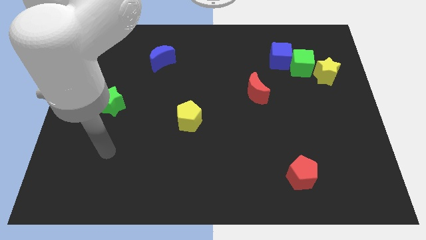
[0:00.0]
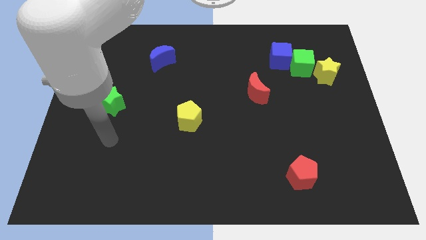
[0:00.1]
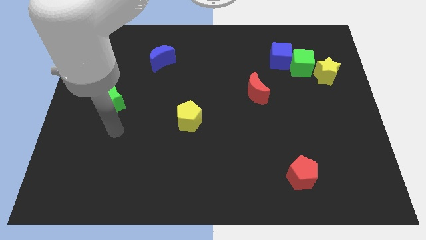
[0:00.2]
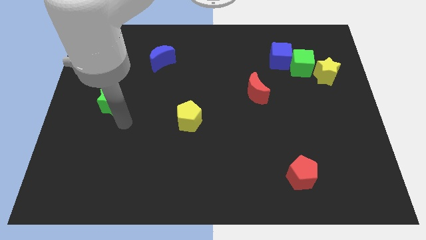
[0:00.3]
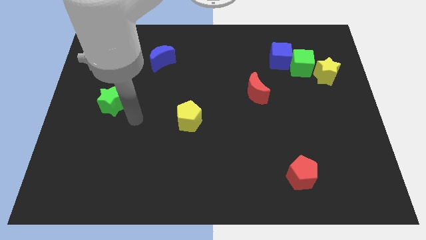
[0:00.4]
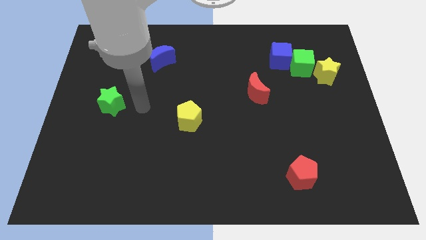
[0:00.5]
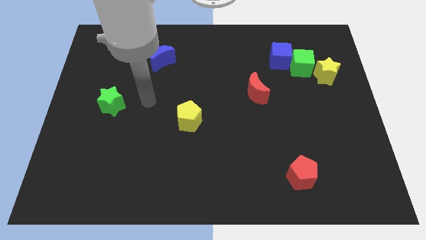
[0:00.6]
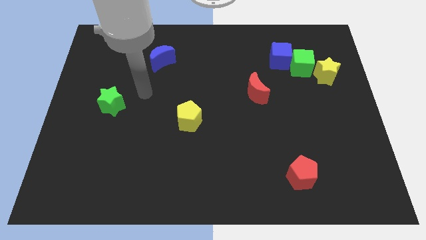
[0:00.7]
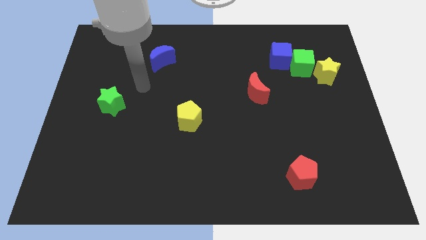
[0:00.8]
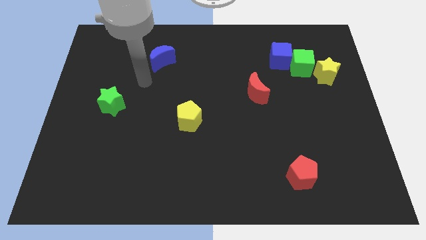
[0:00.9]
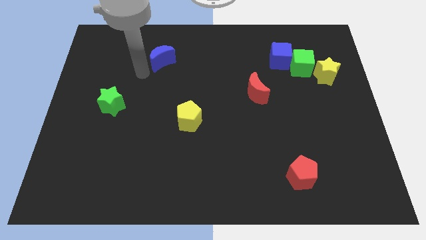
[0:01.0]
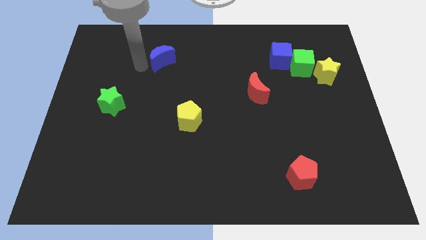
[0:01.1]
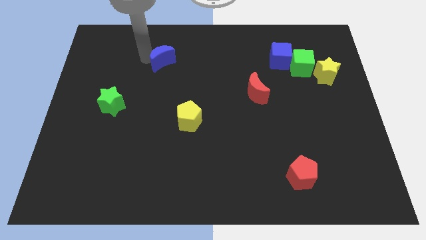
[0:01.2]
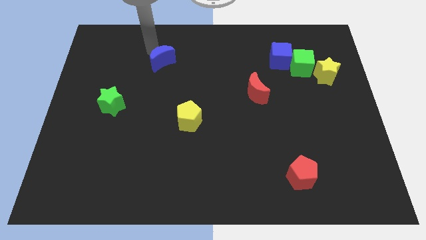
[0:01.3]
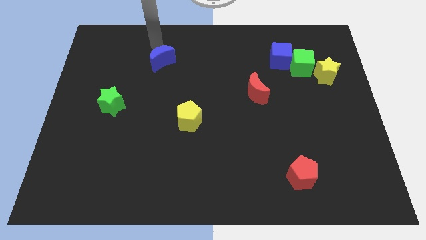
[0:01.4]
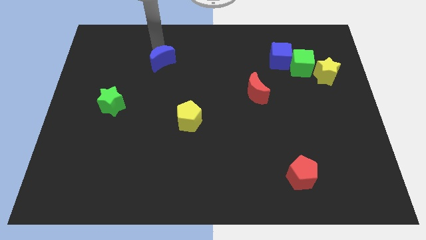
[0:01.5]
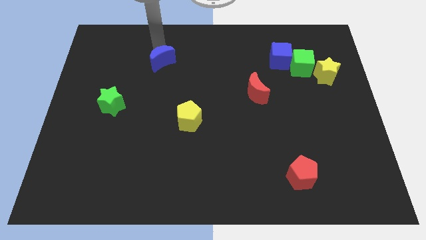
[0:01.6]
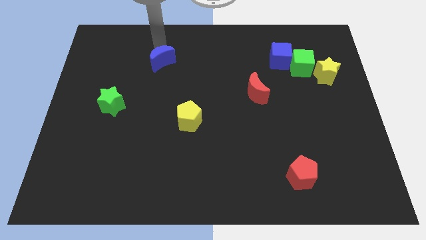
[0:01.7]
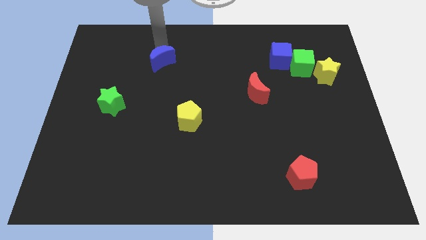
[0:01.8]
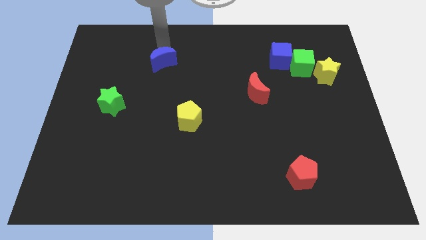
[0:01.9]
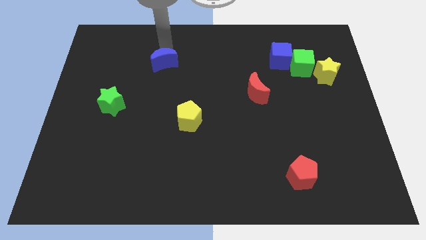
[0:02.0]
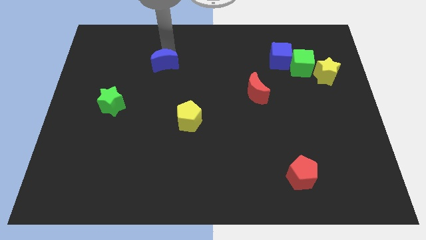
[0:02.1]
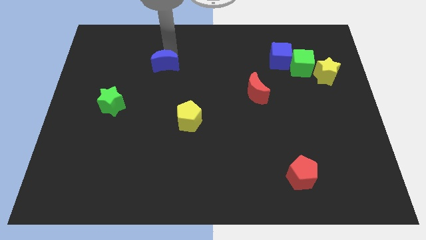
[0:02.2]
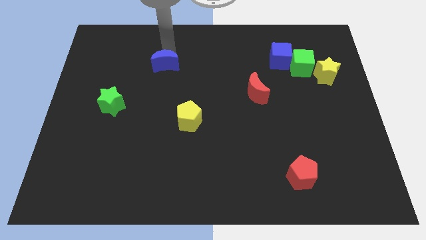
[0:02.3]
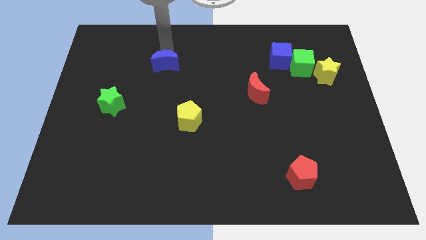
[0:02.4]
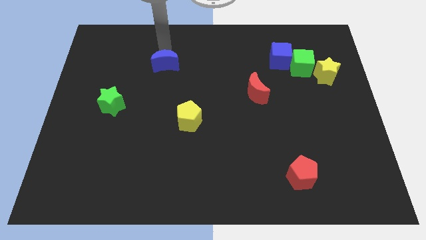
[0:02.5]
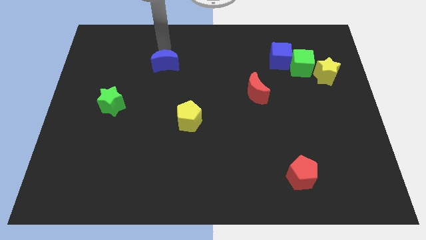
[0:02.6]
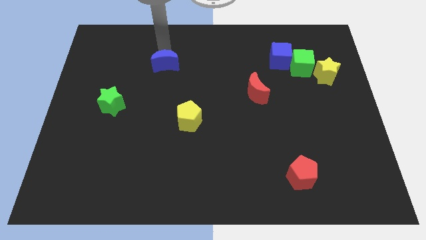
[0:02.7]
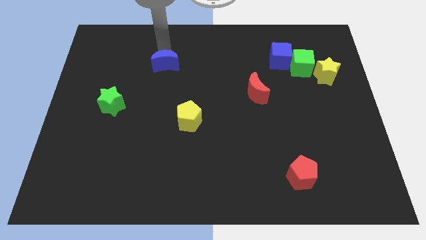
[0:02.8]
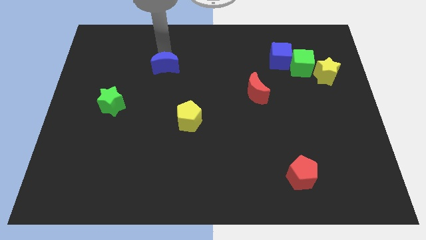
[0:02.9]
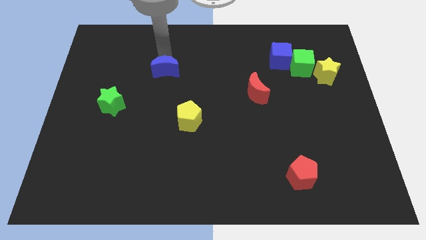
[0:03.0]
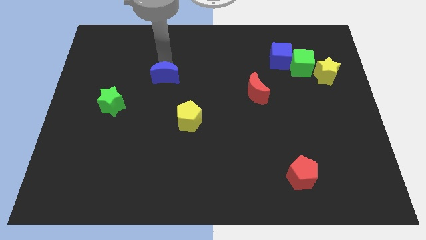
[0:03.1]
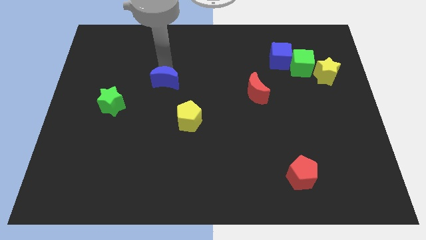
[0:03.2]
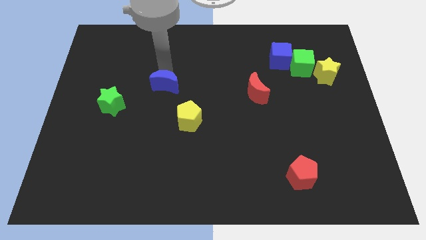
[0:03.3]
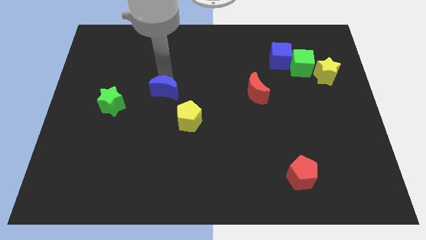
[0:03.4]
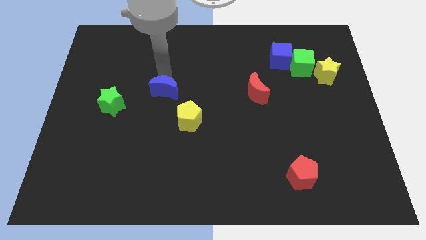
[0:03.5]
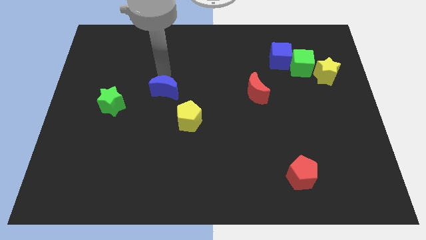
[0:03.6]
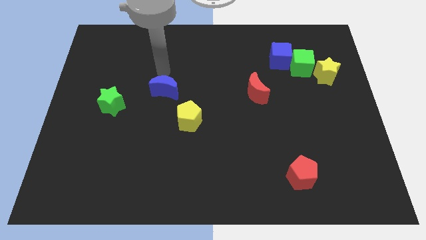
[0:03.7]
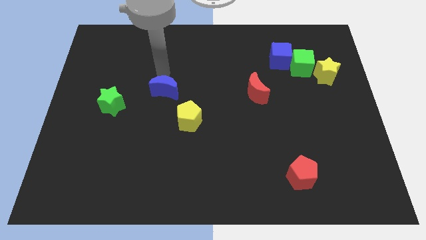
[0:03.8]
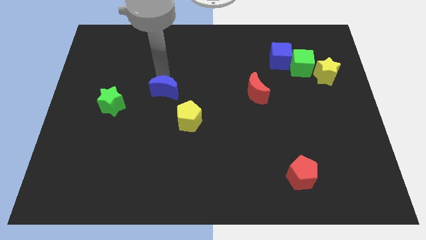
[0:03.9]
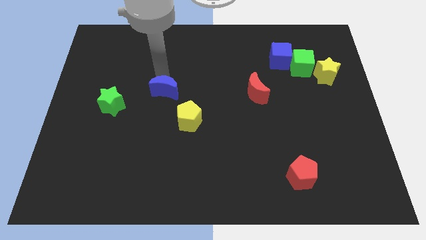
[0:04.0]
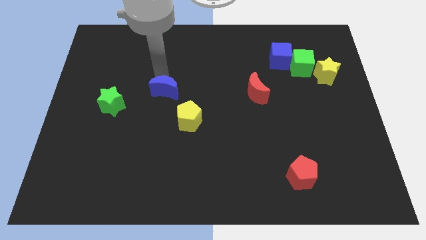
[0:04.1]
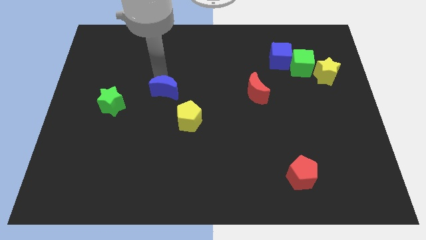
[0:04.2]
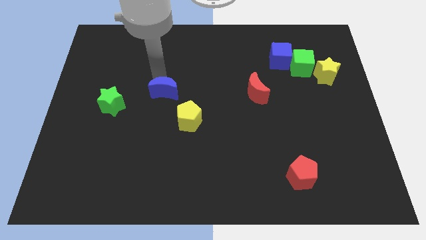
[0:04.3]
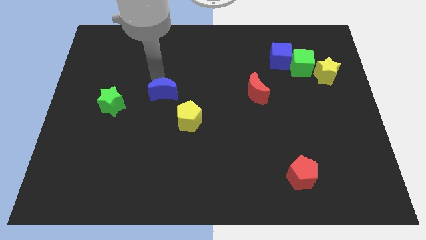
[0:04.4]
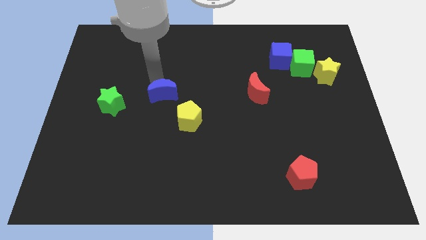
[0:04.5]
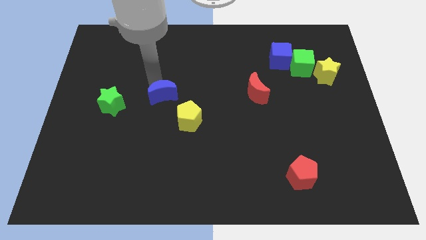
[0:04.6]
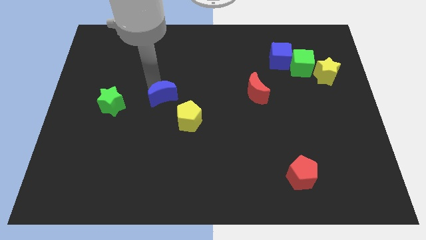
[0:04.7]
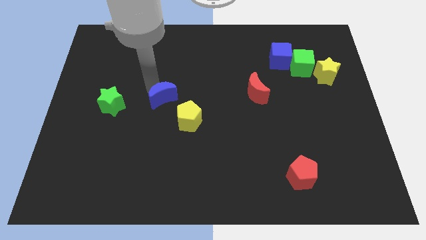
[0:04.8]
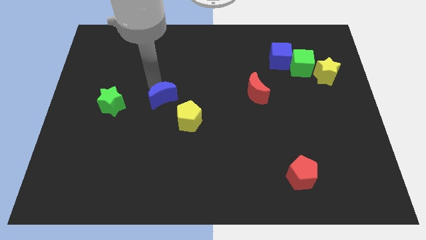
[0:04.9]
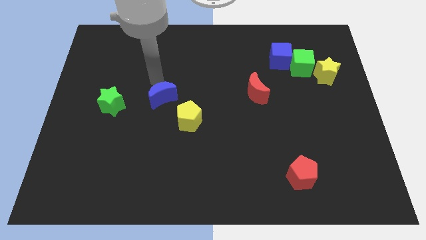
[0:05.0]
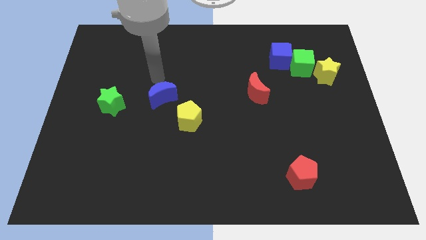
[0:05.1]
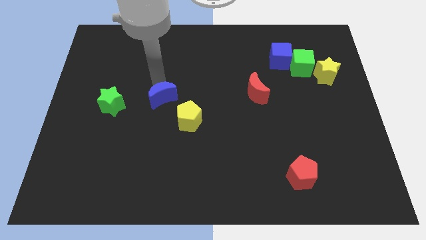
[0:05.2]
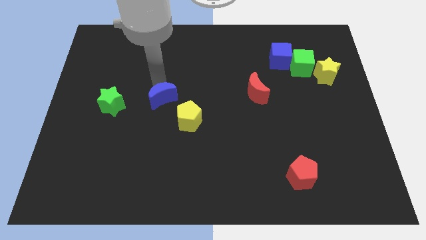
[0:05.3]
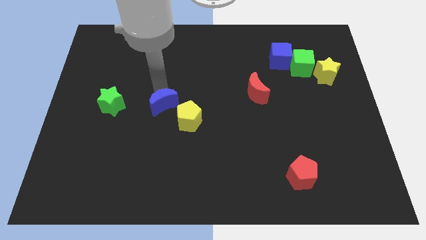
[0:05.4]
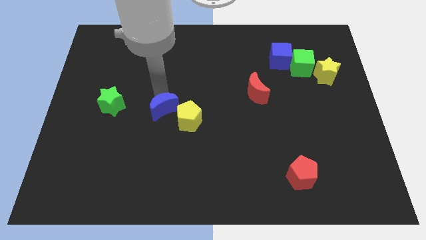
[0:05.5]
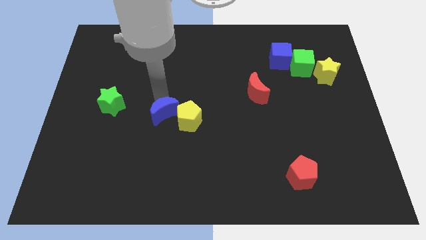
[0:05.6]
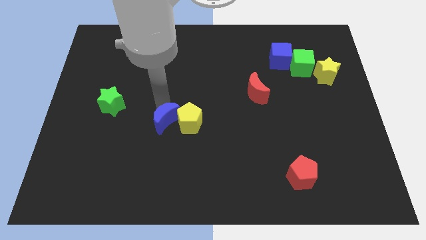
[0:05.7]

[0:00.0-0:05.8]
move the blue moon to the bottom left of the yellow pentagon

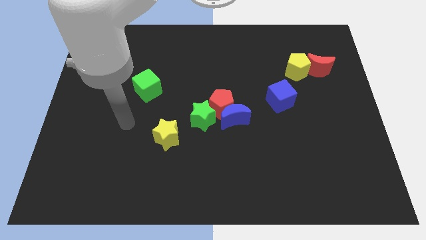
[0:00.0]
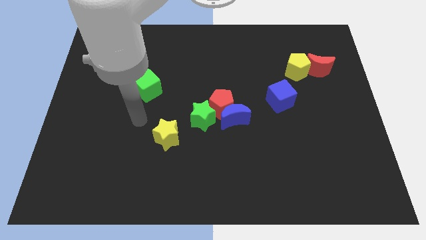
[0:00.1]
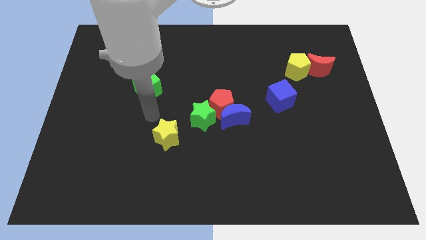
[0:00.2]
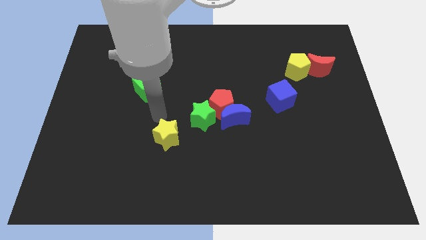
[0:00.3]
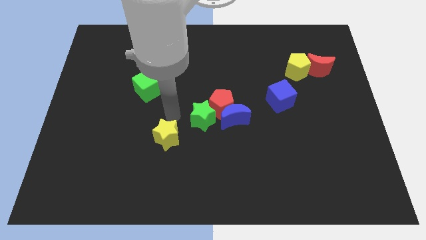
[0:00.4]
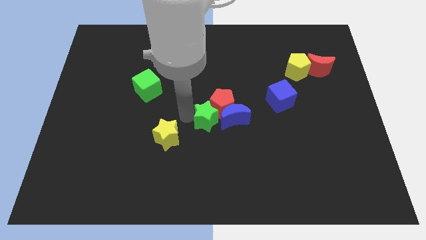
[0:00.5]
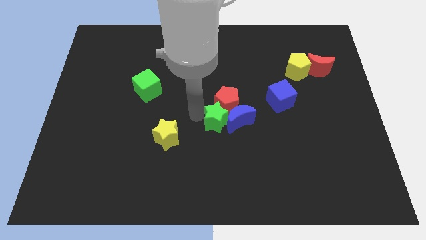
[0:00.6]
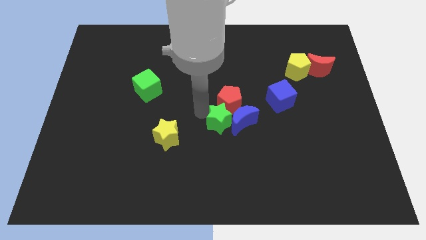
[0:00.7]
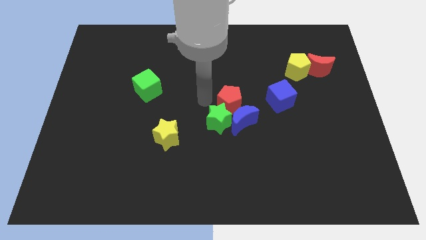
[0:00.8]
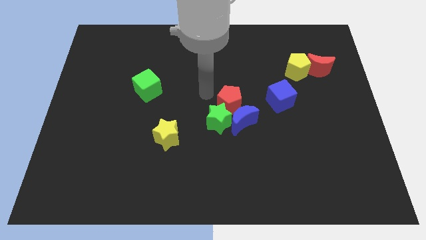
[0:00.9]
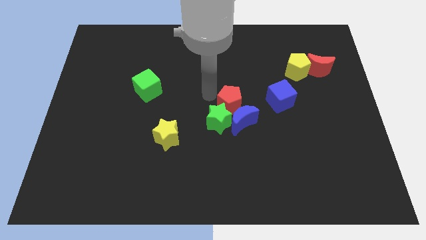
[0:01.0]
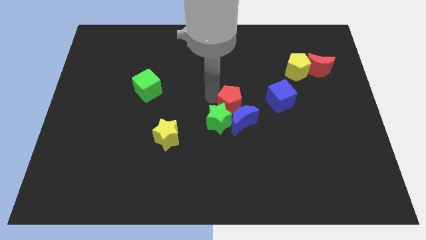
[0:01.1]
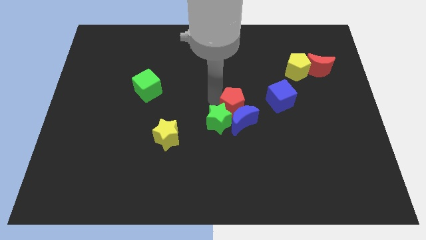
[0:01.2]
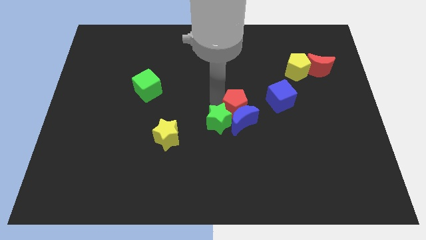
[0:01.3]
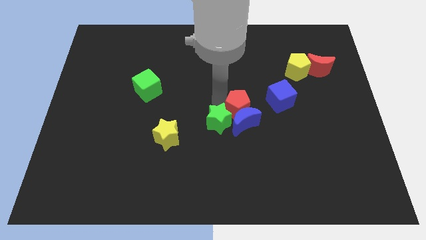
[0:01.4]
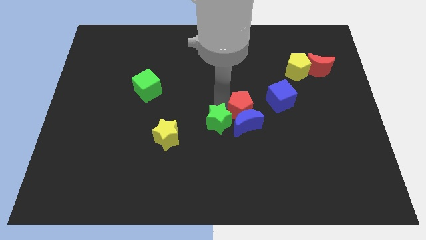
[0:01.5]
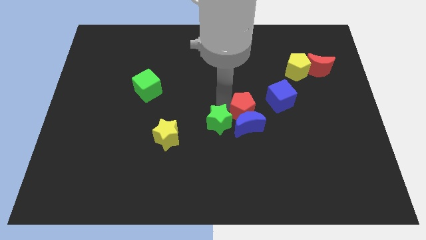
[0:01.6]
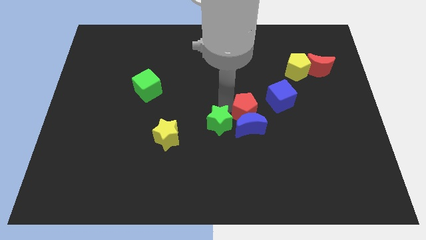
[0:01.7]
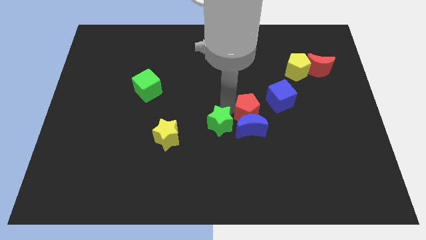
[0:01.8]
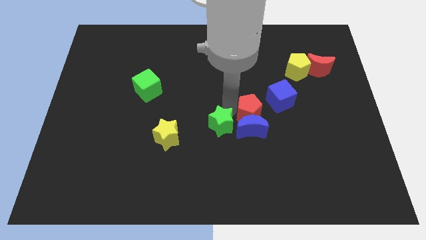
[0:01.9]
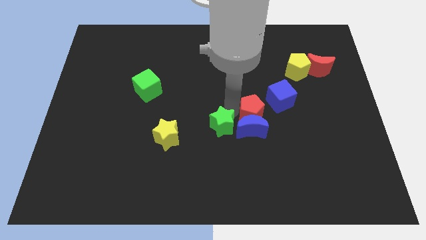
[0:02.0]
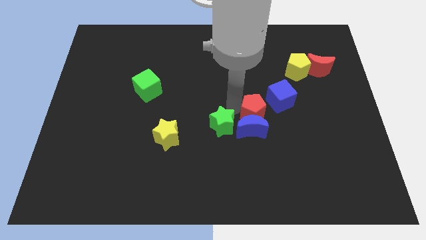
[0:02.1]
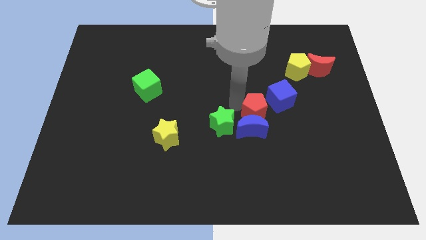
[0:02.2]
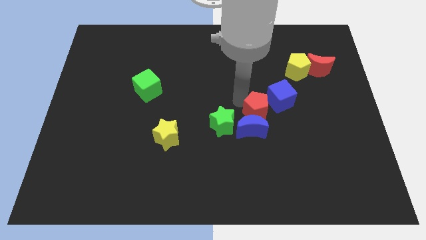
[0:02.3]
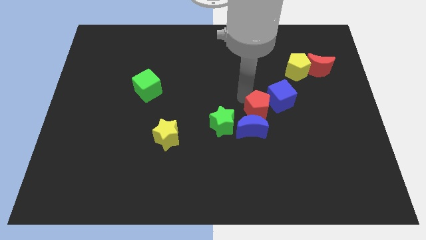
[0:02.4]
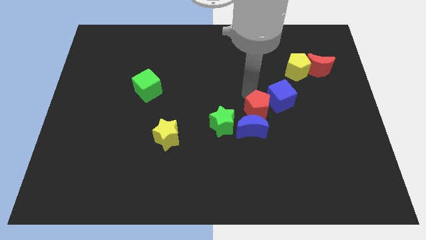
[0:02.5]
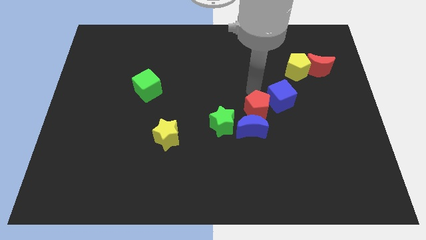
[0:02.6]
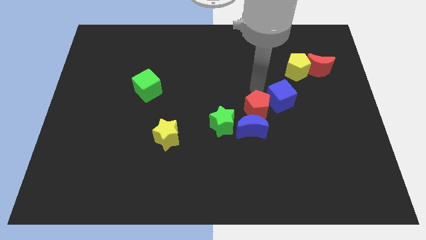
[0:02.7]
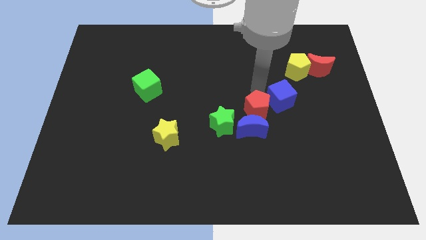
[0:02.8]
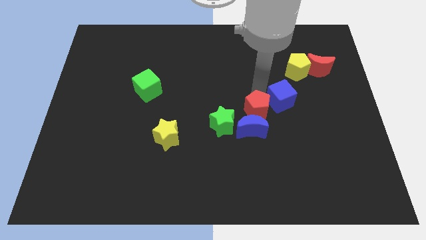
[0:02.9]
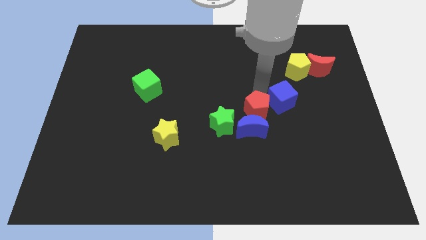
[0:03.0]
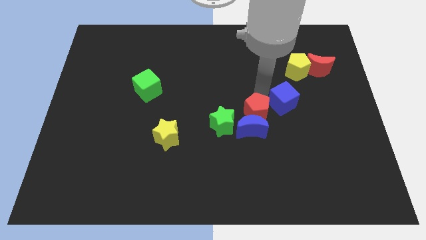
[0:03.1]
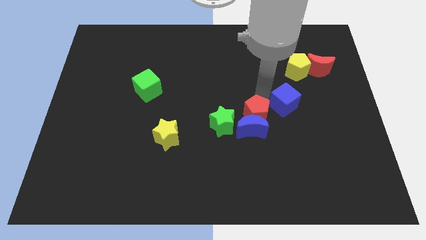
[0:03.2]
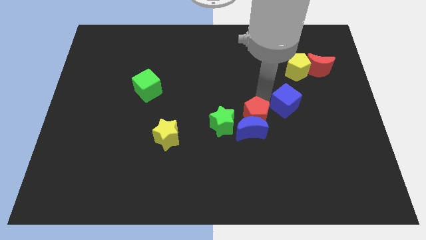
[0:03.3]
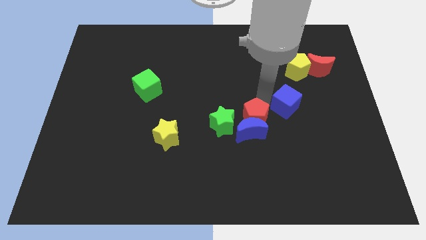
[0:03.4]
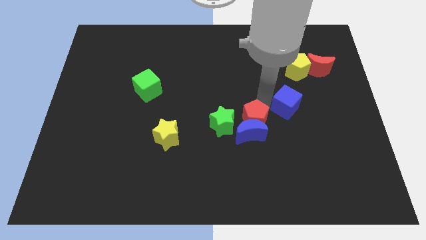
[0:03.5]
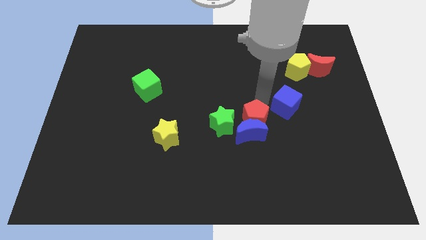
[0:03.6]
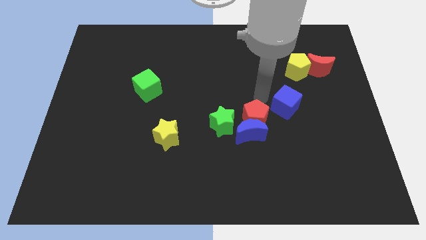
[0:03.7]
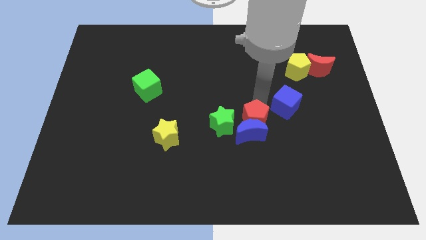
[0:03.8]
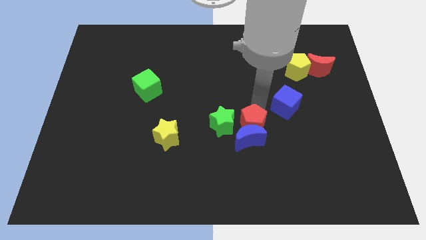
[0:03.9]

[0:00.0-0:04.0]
move the red pentagon to the bottom right of the green star
